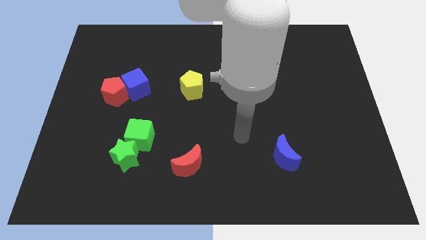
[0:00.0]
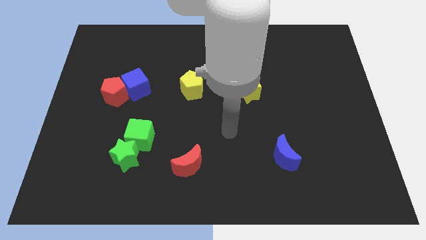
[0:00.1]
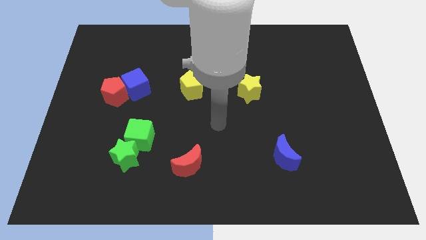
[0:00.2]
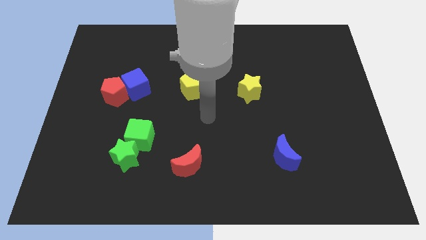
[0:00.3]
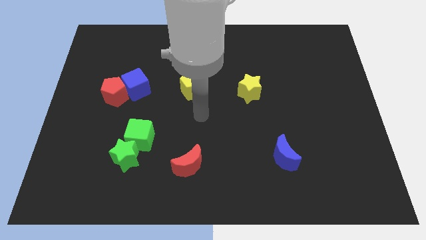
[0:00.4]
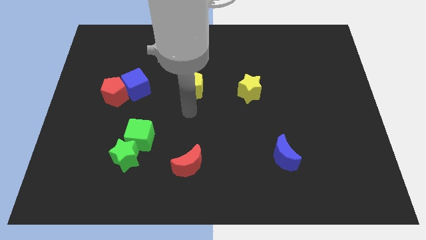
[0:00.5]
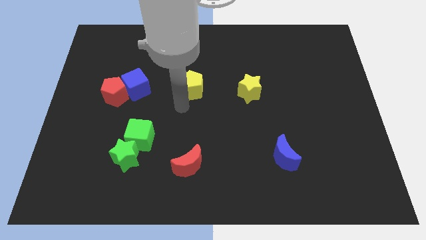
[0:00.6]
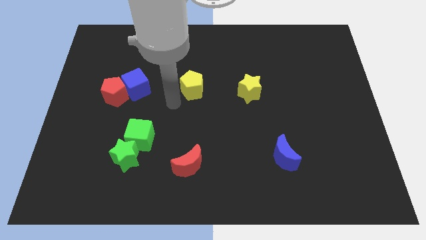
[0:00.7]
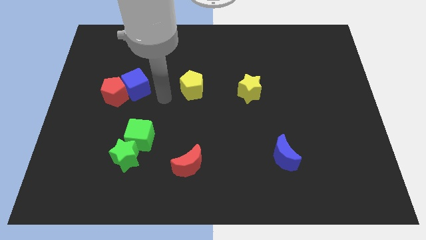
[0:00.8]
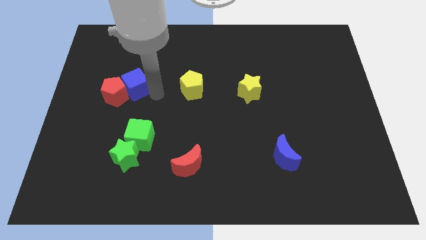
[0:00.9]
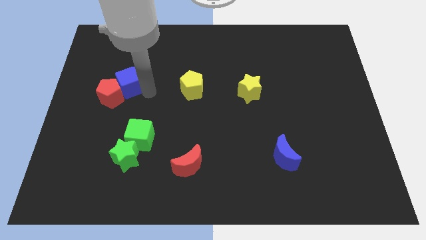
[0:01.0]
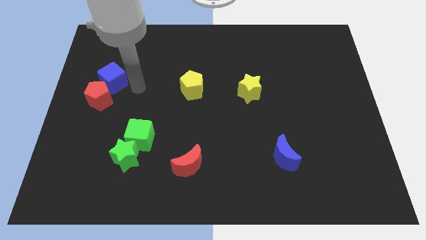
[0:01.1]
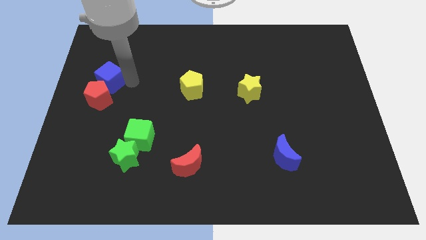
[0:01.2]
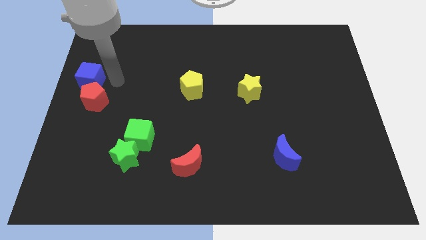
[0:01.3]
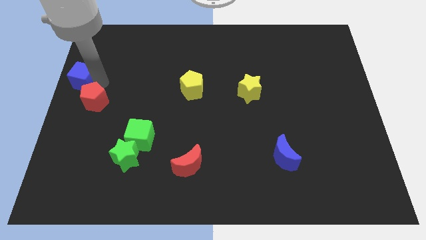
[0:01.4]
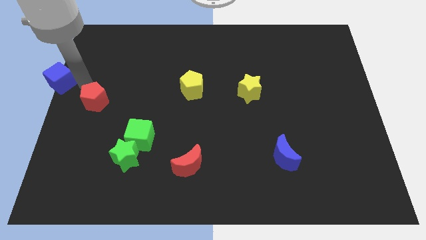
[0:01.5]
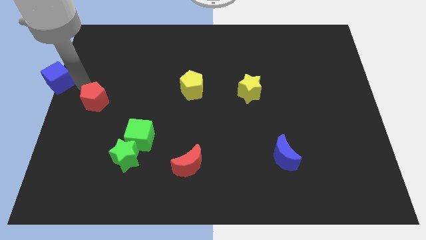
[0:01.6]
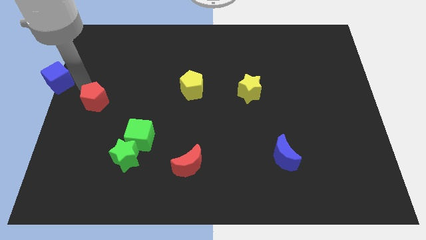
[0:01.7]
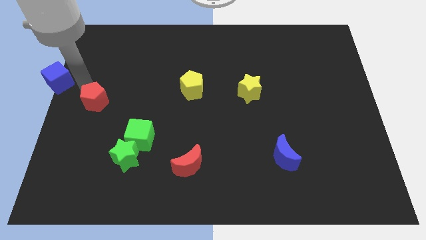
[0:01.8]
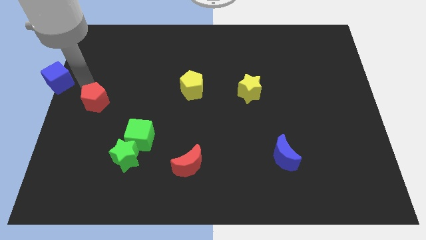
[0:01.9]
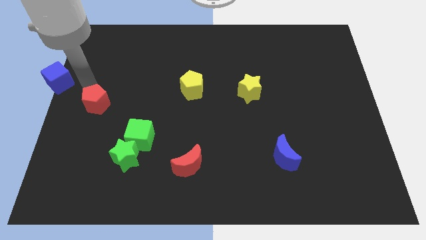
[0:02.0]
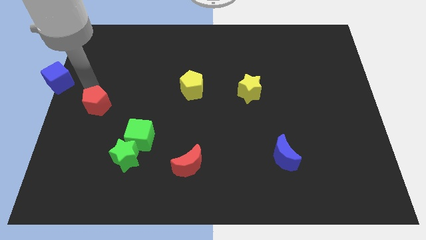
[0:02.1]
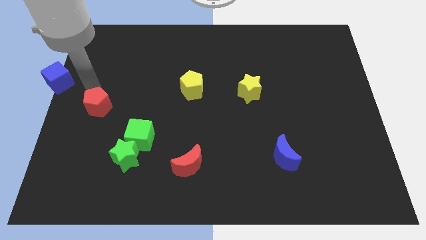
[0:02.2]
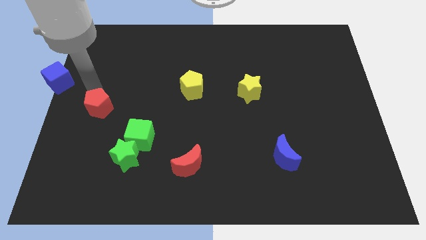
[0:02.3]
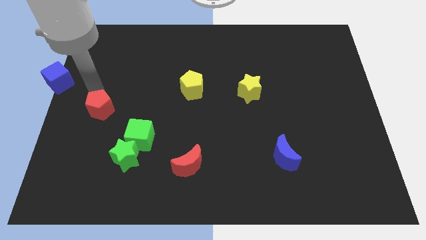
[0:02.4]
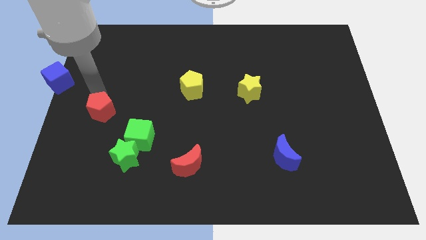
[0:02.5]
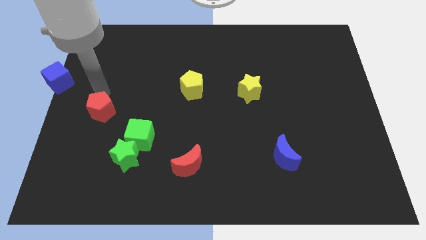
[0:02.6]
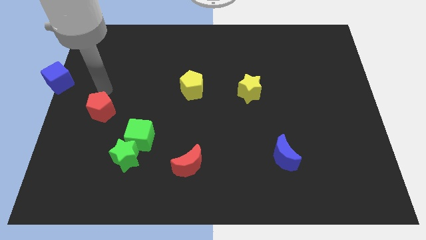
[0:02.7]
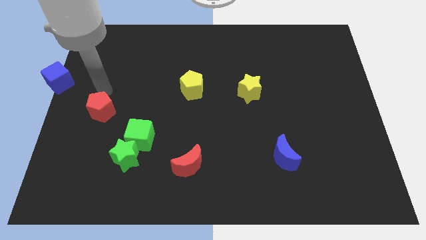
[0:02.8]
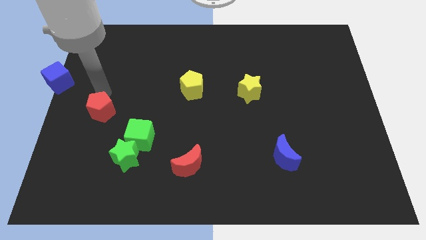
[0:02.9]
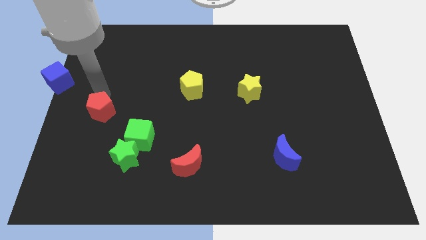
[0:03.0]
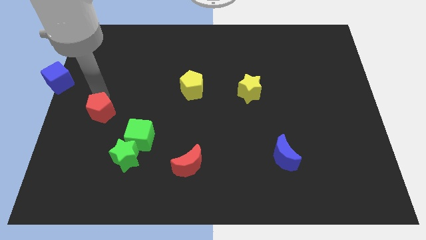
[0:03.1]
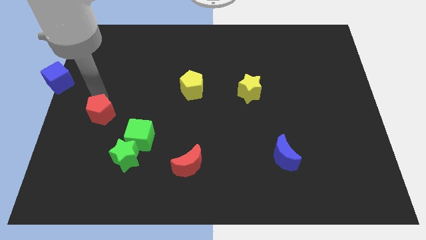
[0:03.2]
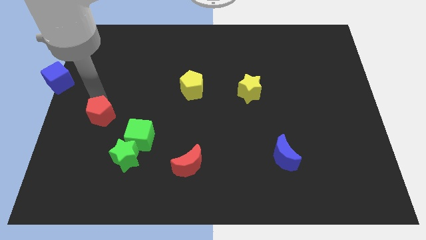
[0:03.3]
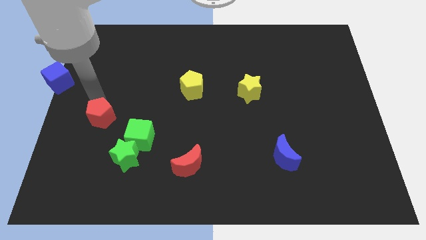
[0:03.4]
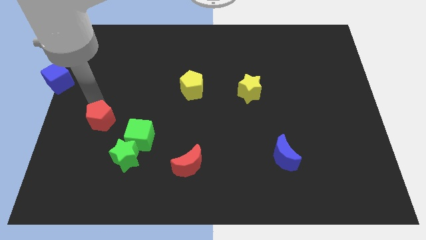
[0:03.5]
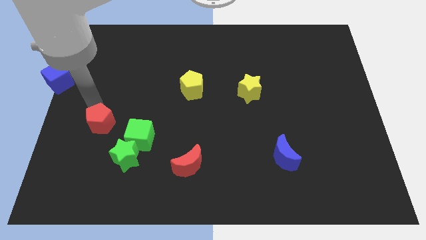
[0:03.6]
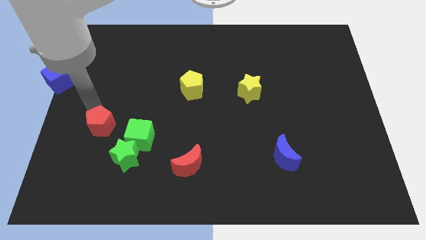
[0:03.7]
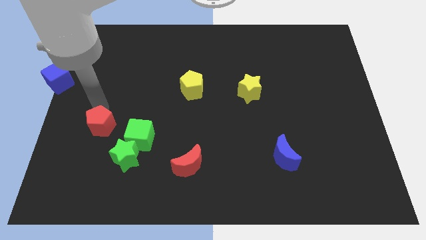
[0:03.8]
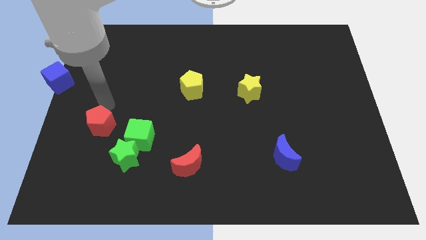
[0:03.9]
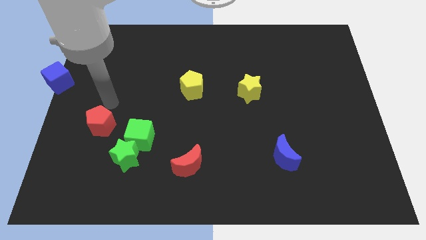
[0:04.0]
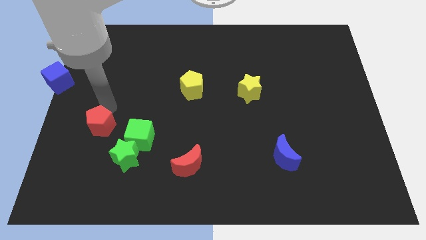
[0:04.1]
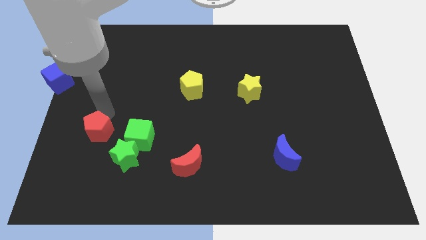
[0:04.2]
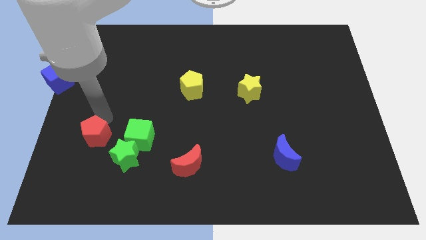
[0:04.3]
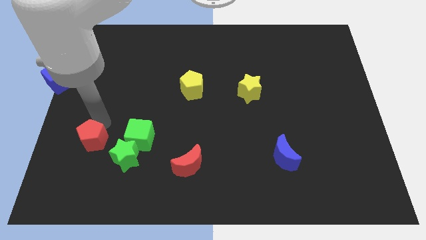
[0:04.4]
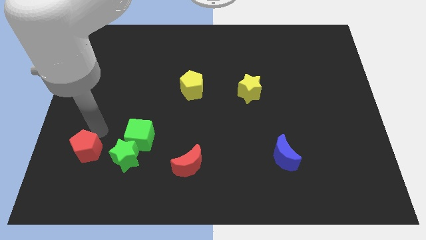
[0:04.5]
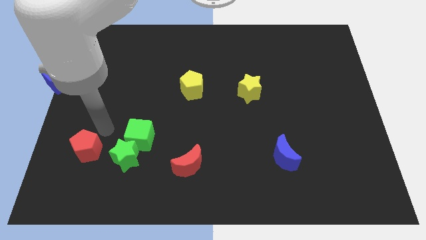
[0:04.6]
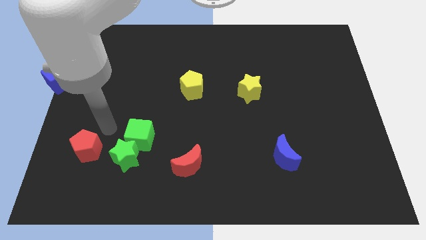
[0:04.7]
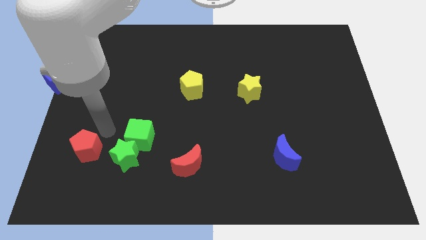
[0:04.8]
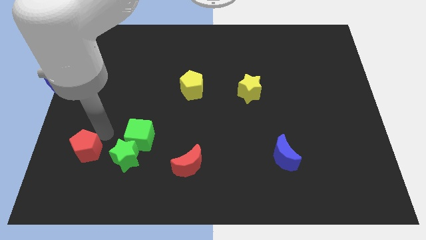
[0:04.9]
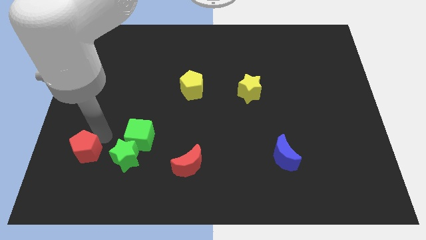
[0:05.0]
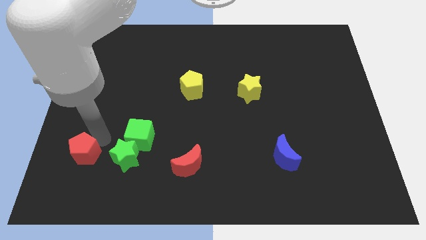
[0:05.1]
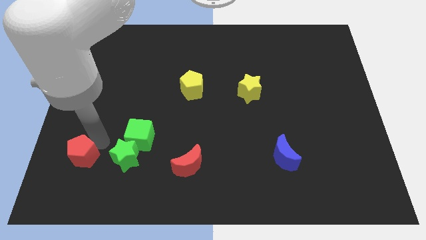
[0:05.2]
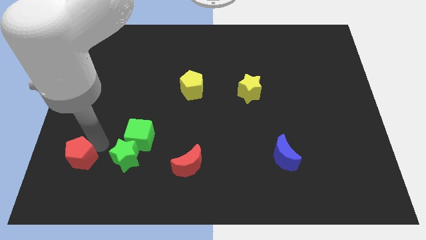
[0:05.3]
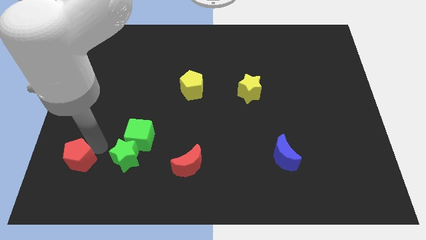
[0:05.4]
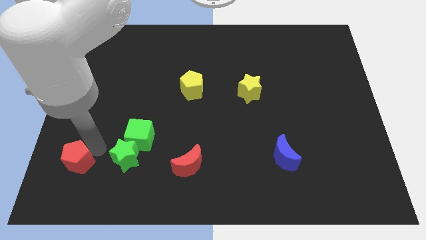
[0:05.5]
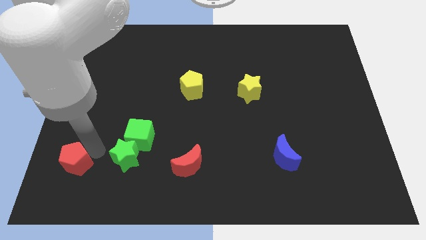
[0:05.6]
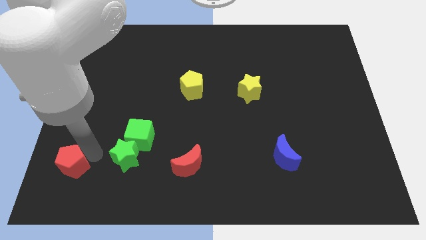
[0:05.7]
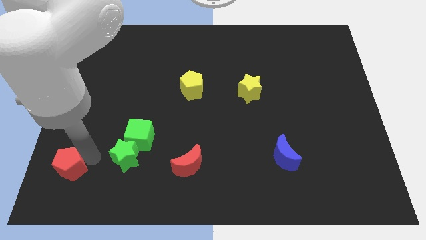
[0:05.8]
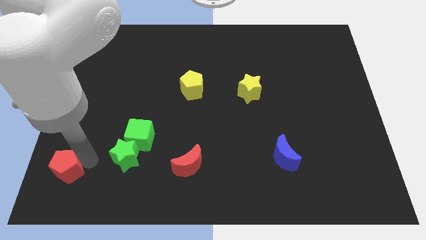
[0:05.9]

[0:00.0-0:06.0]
push the red pentagon to the bottom left
